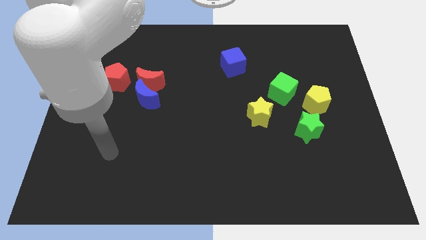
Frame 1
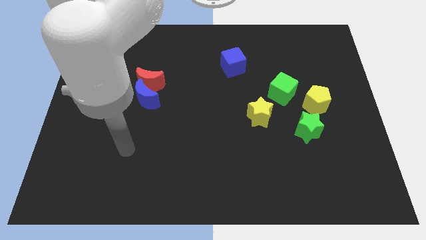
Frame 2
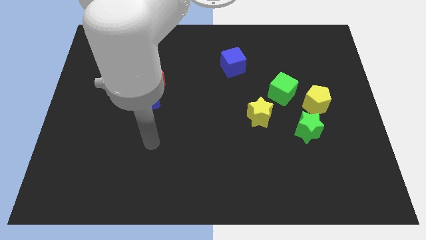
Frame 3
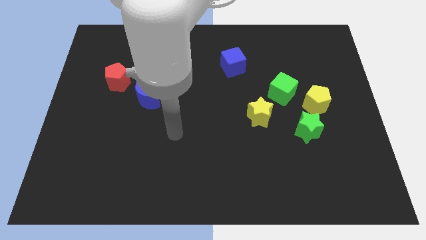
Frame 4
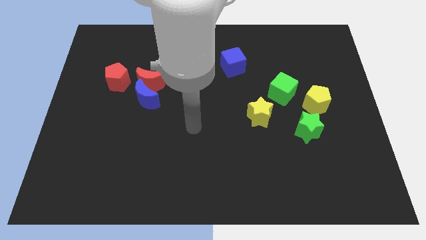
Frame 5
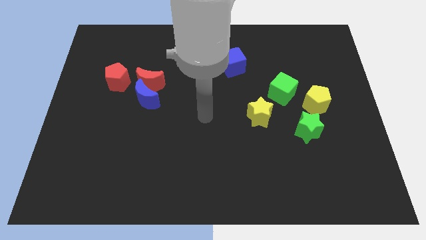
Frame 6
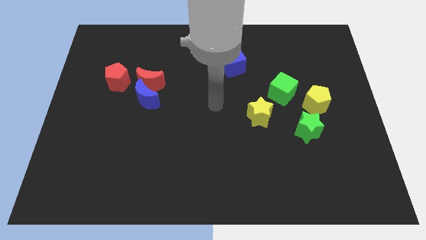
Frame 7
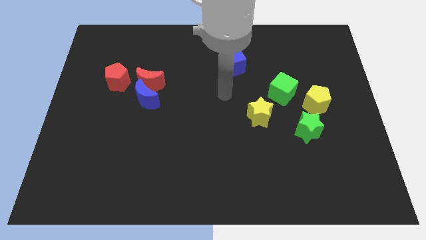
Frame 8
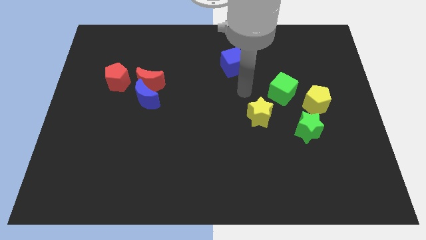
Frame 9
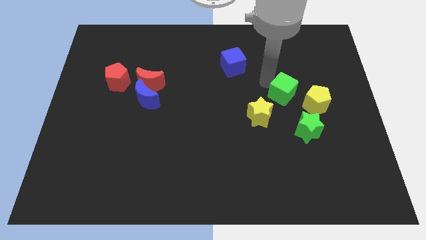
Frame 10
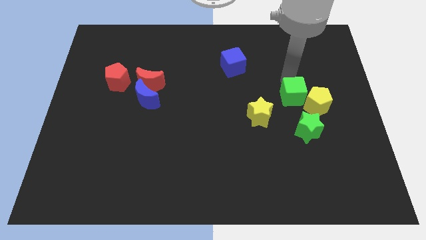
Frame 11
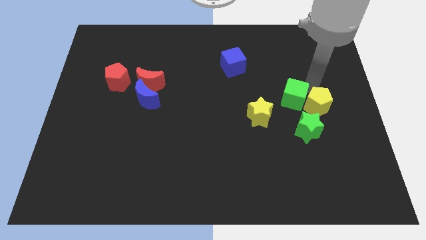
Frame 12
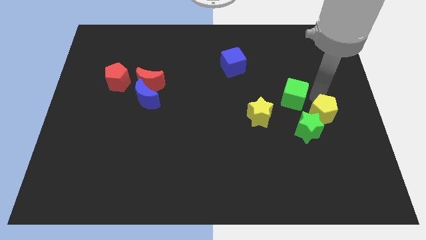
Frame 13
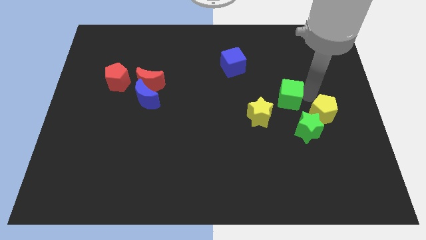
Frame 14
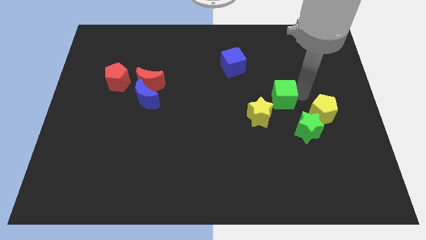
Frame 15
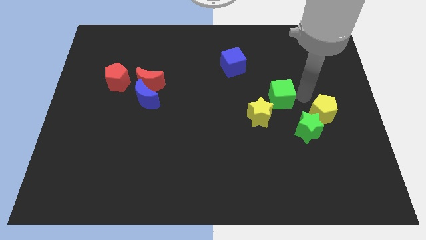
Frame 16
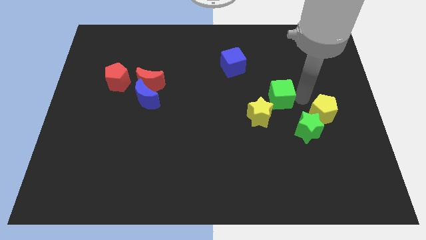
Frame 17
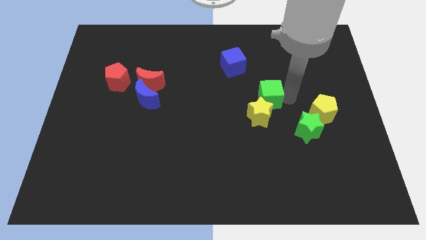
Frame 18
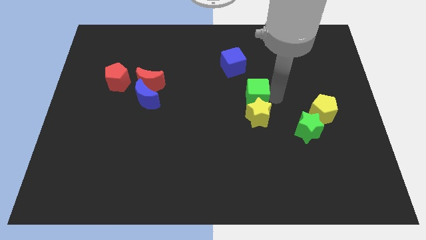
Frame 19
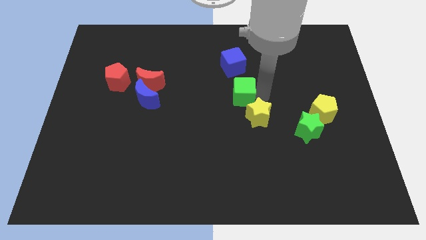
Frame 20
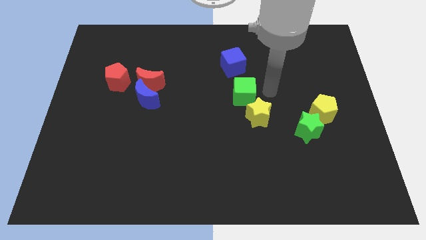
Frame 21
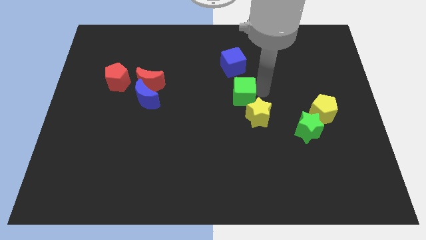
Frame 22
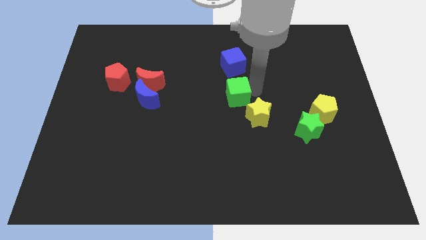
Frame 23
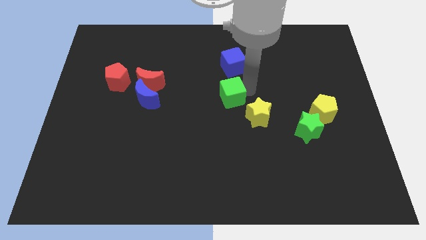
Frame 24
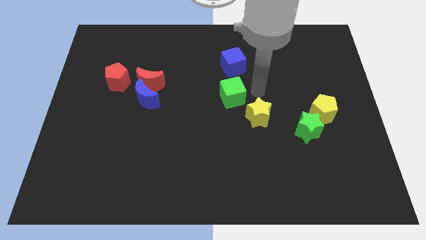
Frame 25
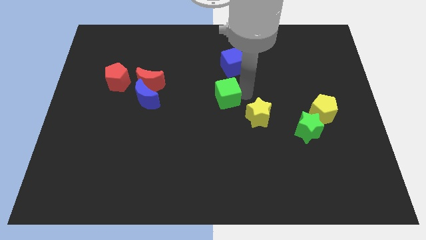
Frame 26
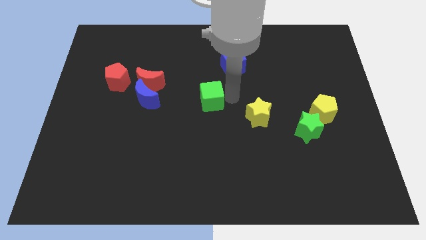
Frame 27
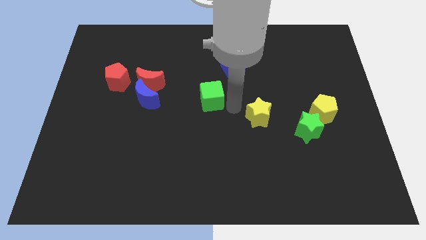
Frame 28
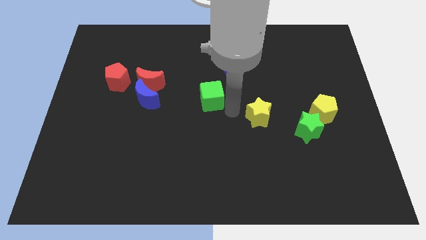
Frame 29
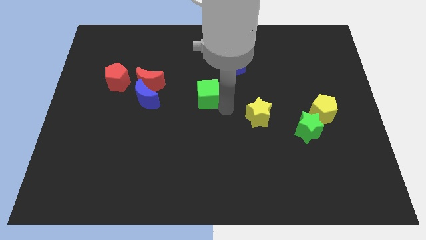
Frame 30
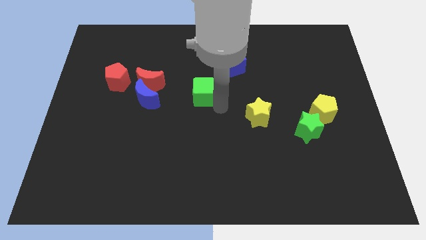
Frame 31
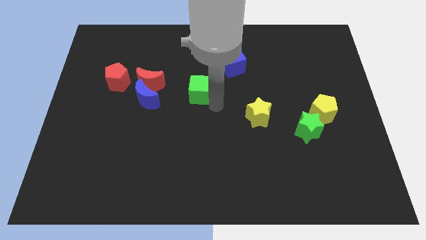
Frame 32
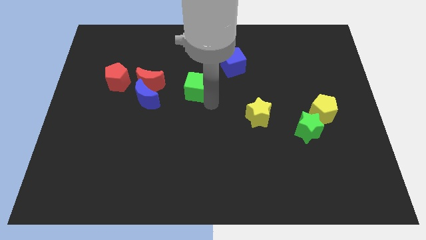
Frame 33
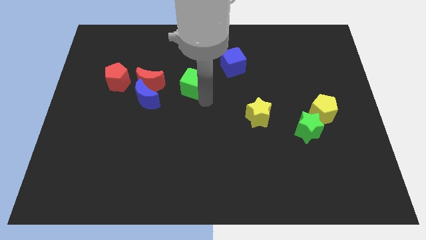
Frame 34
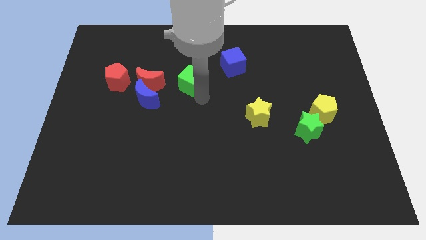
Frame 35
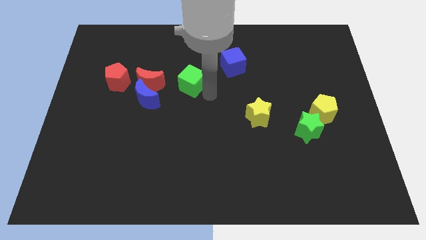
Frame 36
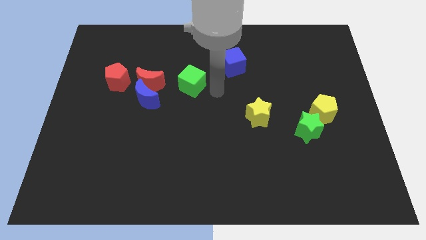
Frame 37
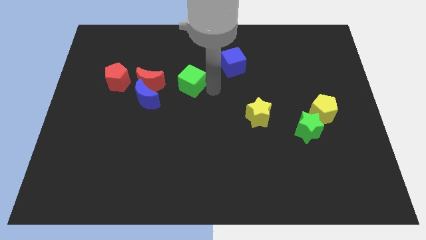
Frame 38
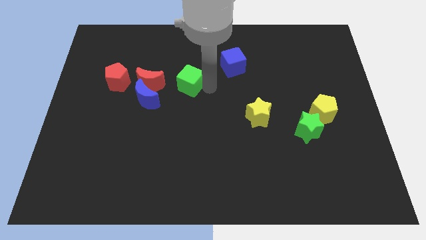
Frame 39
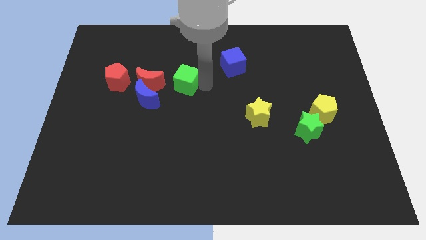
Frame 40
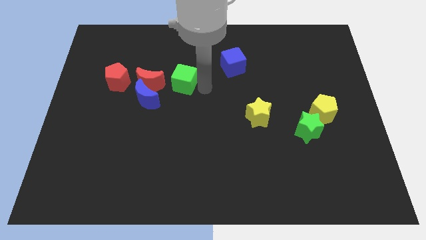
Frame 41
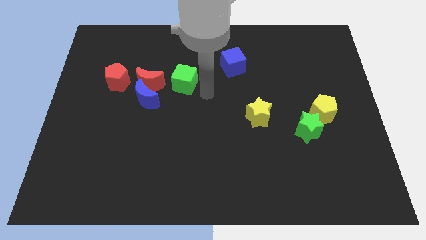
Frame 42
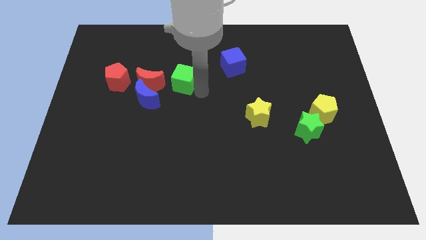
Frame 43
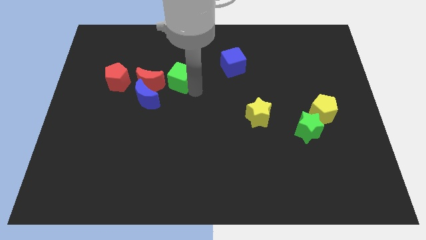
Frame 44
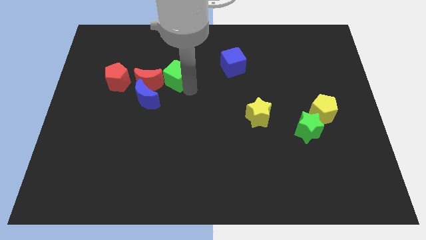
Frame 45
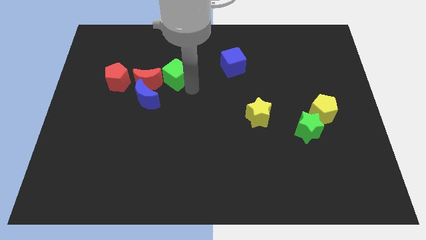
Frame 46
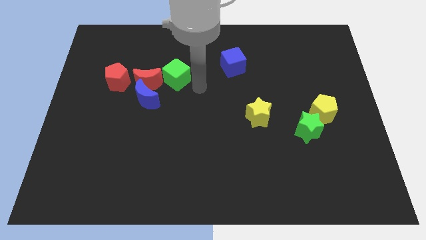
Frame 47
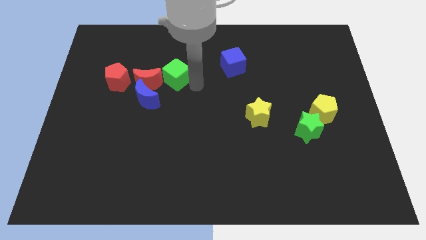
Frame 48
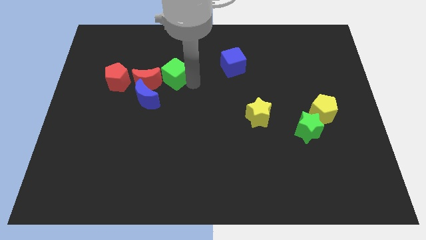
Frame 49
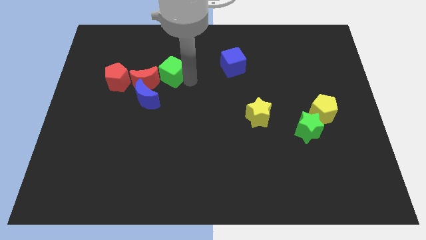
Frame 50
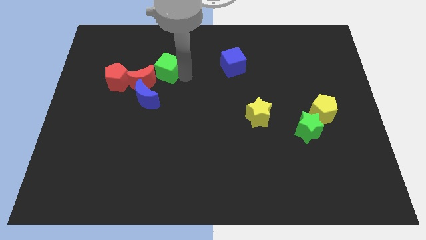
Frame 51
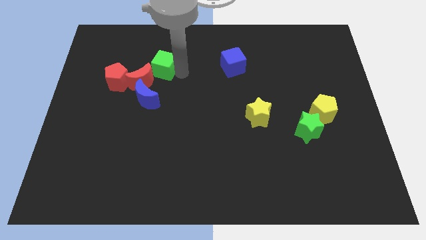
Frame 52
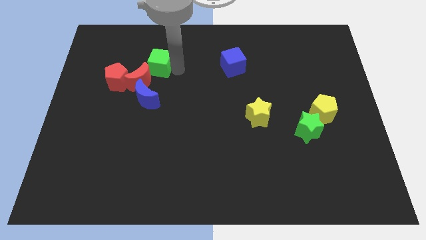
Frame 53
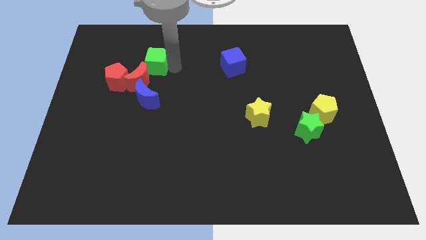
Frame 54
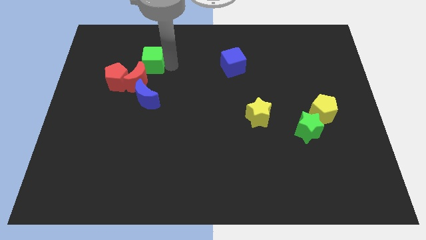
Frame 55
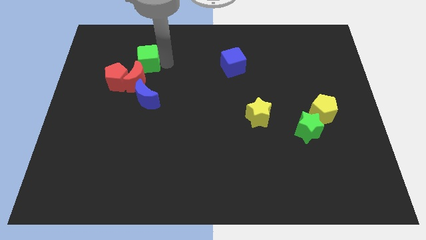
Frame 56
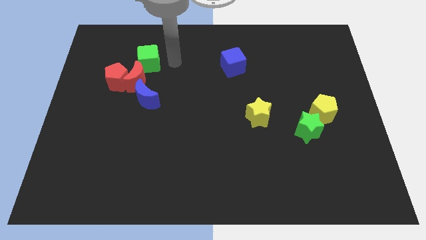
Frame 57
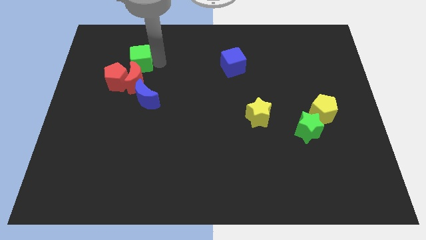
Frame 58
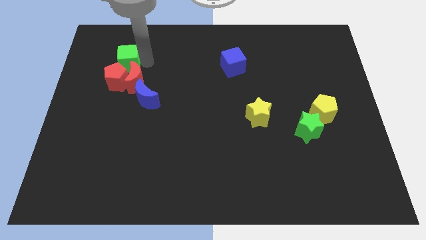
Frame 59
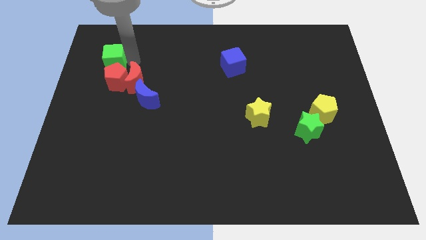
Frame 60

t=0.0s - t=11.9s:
put the green cube to the top left of the red pentagon

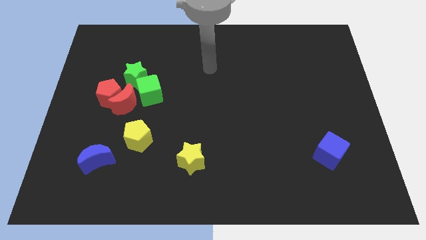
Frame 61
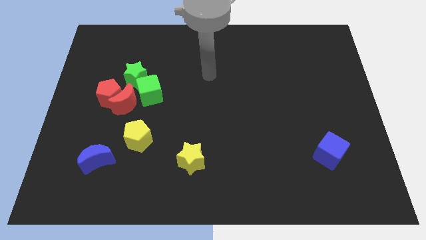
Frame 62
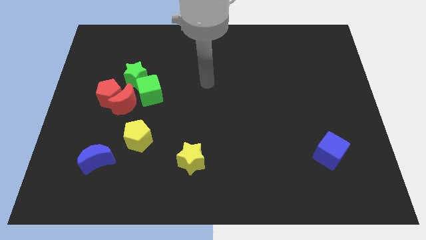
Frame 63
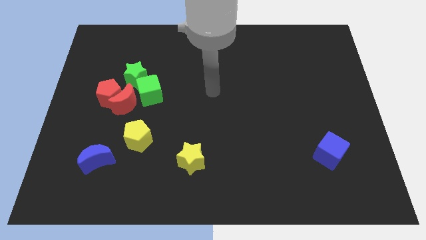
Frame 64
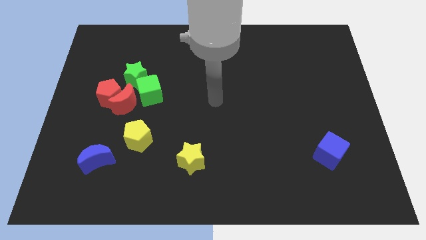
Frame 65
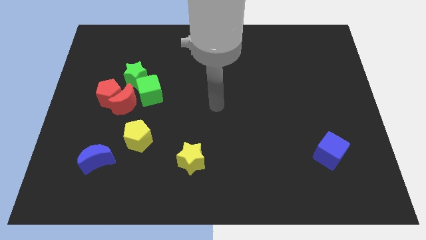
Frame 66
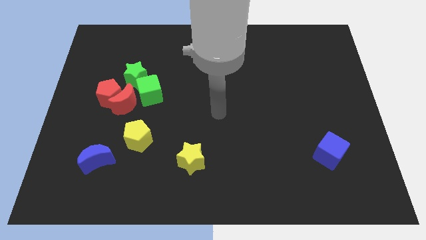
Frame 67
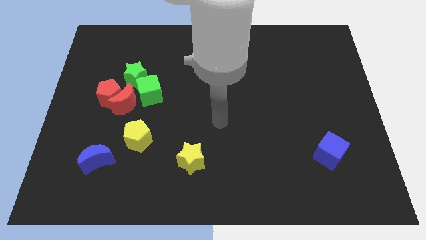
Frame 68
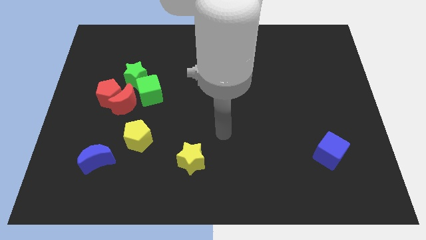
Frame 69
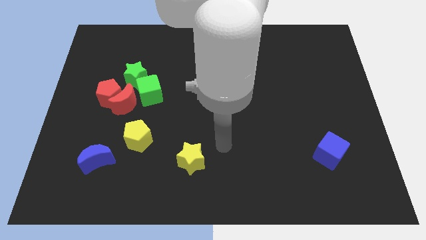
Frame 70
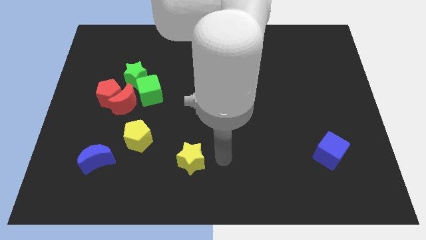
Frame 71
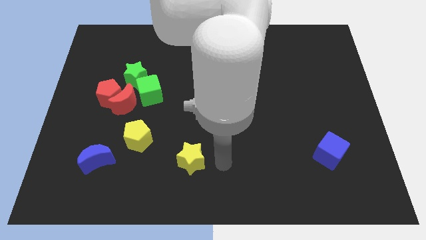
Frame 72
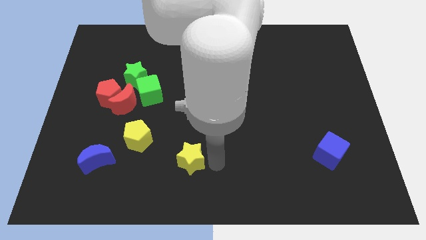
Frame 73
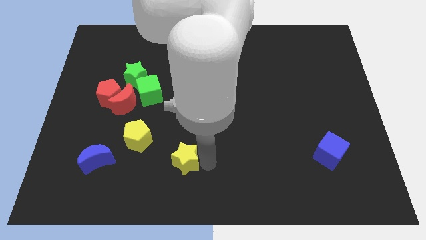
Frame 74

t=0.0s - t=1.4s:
slide the yellow star to the bottom right side of the yellow pentagon

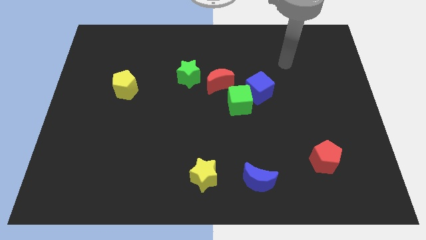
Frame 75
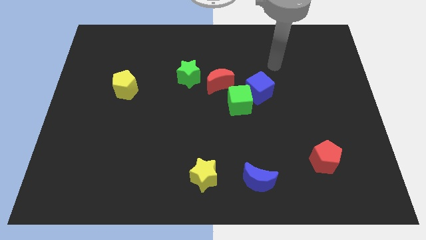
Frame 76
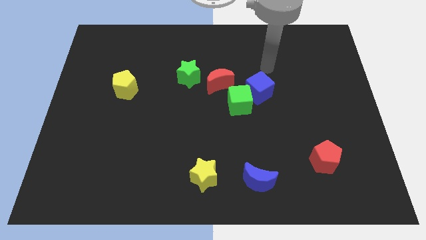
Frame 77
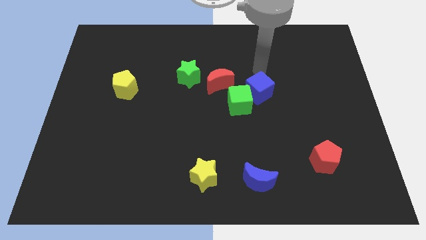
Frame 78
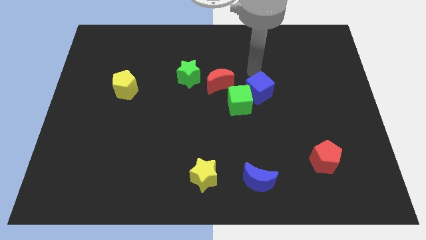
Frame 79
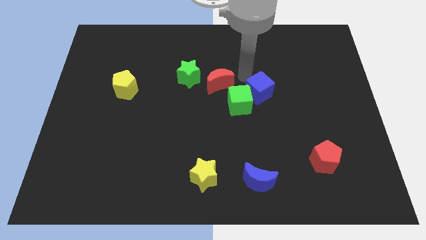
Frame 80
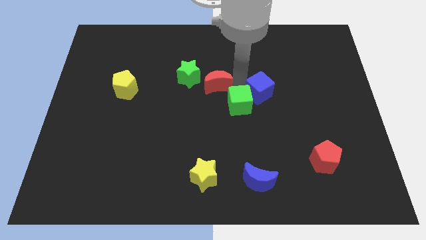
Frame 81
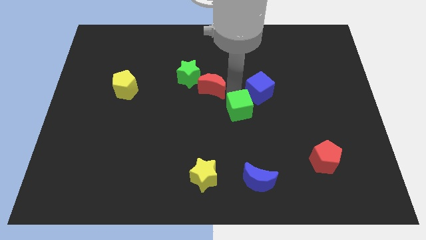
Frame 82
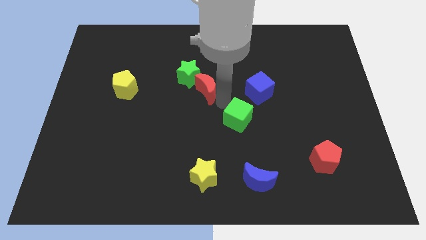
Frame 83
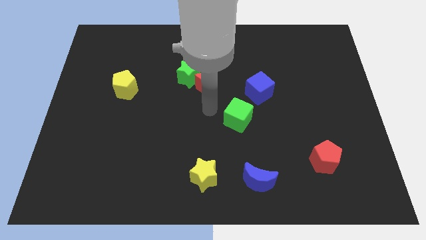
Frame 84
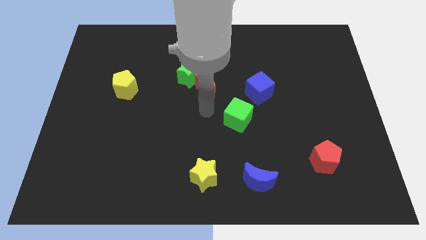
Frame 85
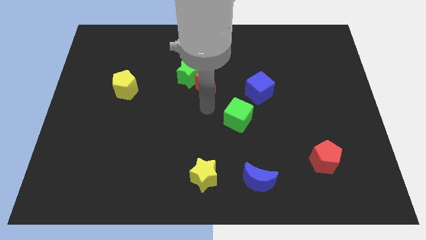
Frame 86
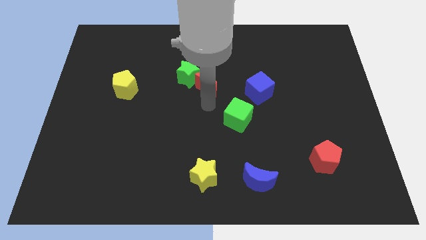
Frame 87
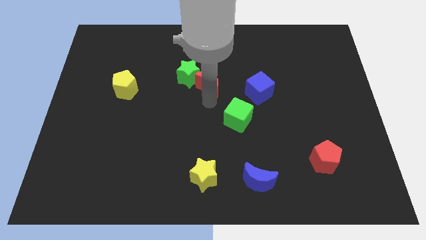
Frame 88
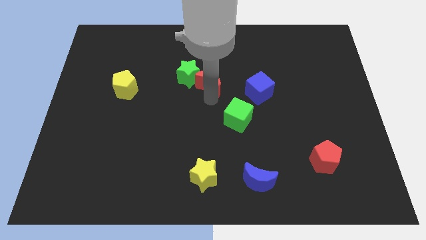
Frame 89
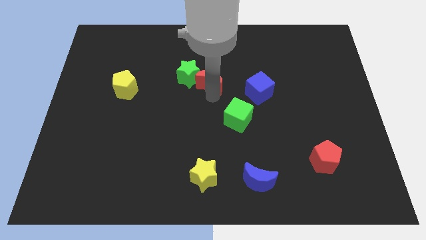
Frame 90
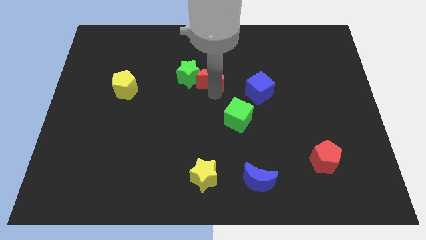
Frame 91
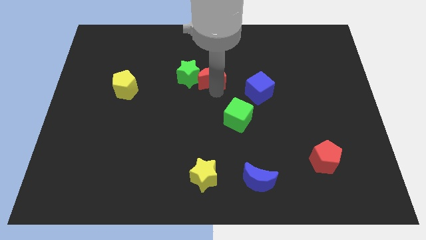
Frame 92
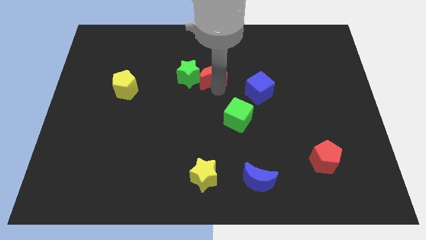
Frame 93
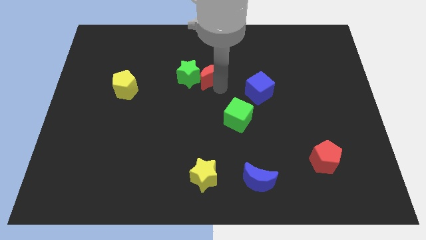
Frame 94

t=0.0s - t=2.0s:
move the red moon to the top right of the green star
